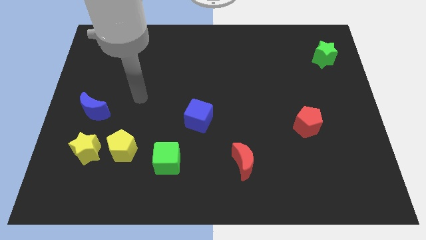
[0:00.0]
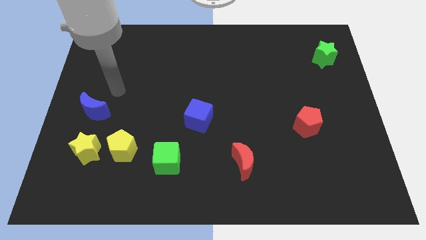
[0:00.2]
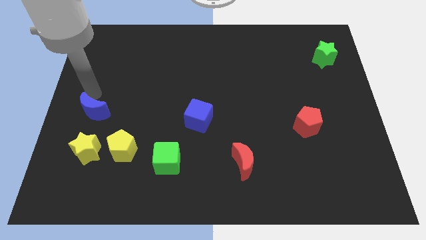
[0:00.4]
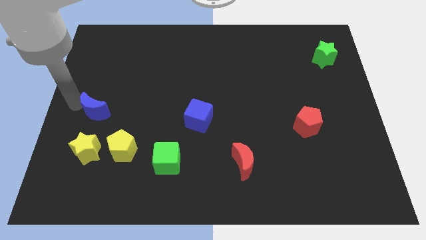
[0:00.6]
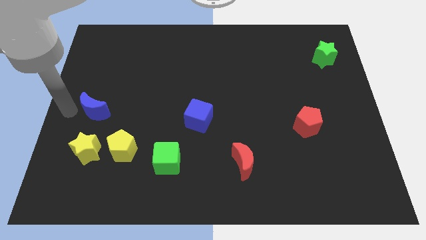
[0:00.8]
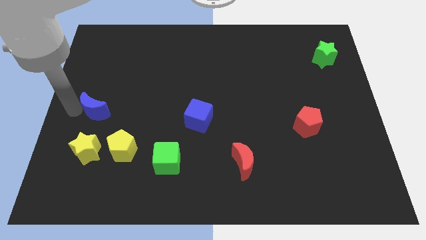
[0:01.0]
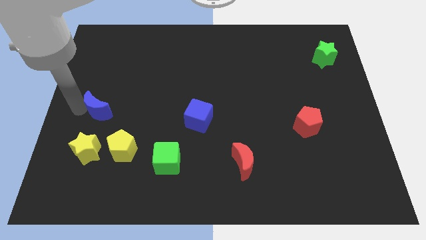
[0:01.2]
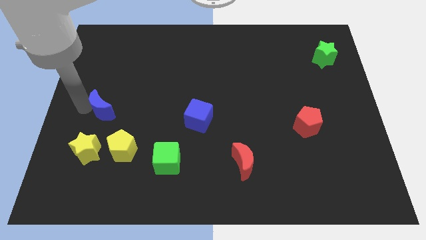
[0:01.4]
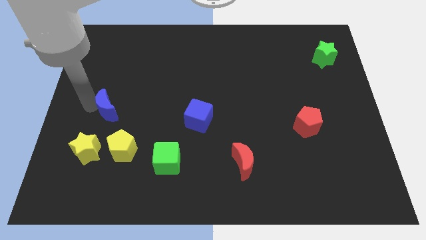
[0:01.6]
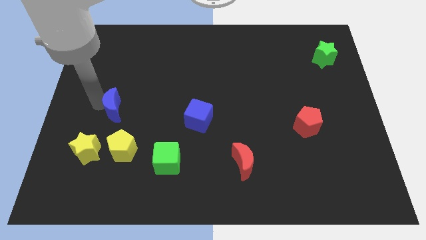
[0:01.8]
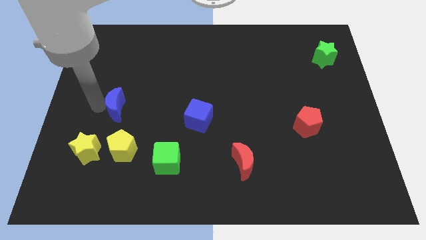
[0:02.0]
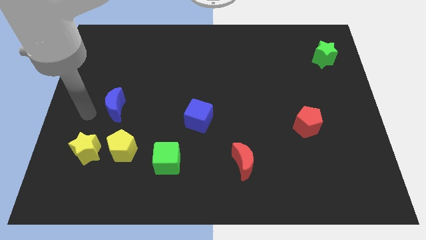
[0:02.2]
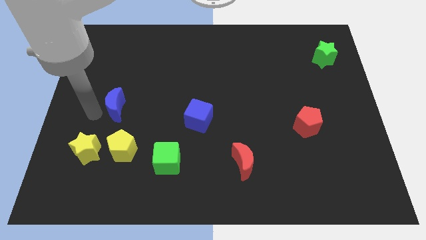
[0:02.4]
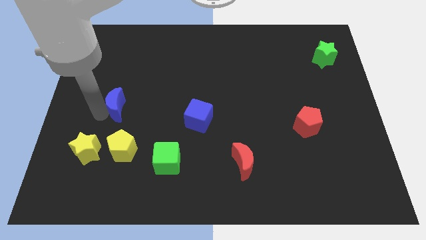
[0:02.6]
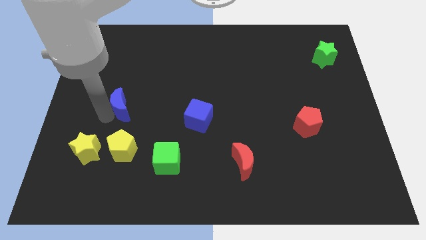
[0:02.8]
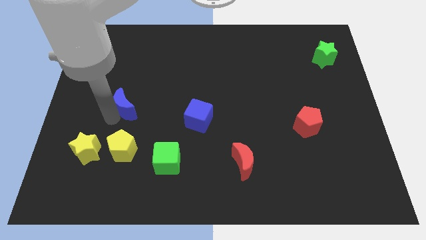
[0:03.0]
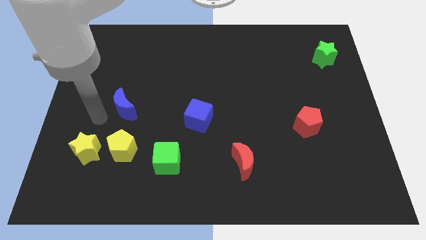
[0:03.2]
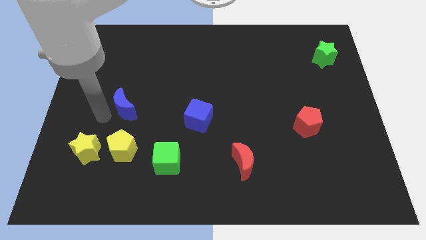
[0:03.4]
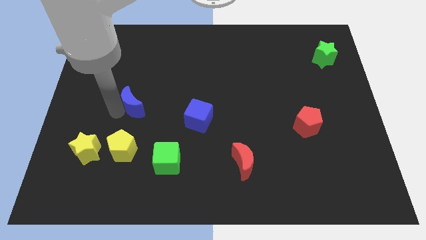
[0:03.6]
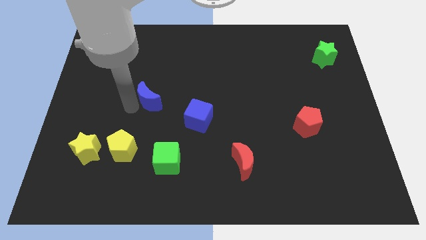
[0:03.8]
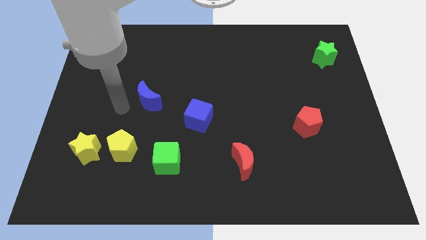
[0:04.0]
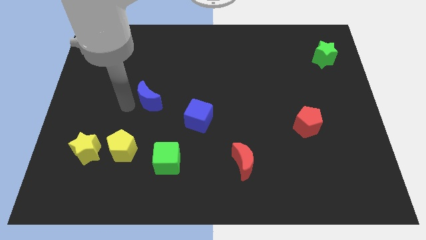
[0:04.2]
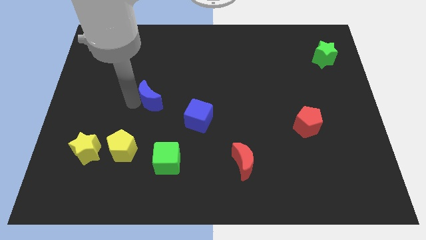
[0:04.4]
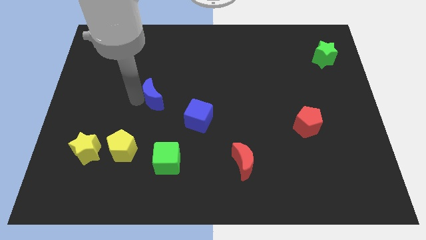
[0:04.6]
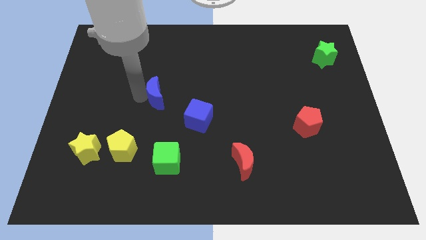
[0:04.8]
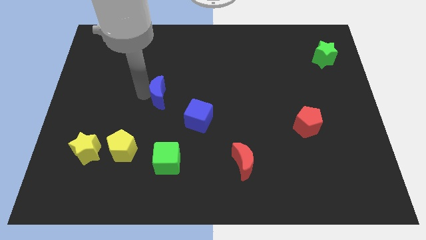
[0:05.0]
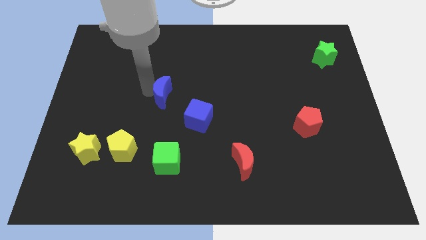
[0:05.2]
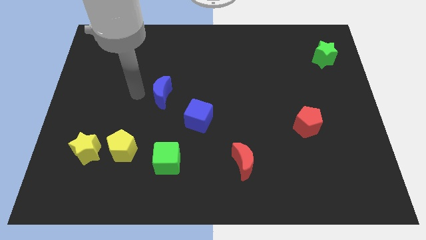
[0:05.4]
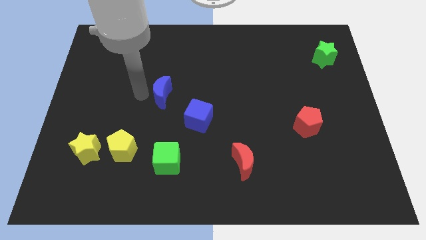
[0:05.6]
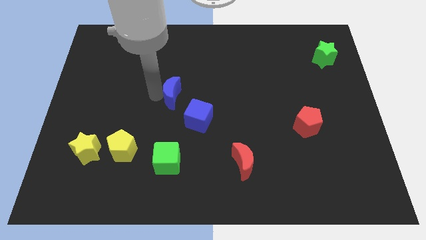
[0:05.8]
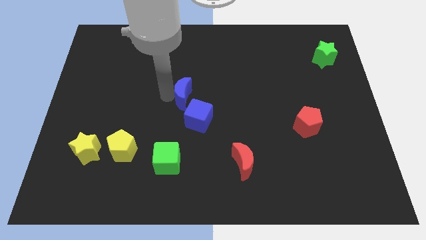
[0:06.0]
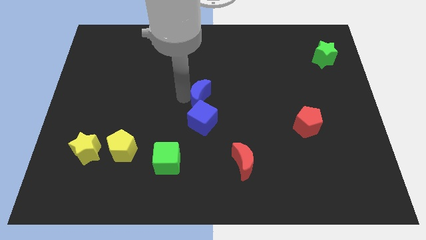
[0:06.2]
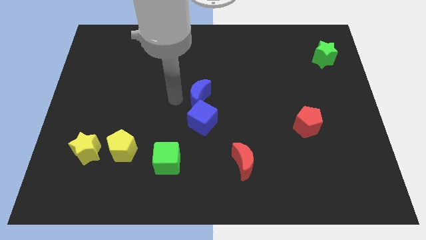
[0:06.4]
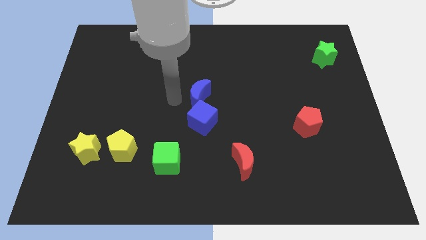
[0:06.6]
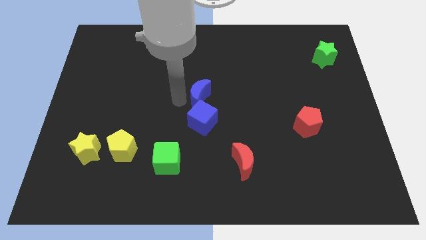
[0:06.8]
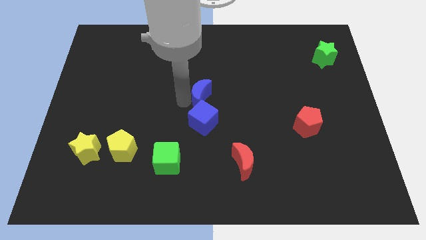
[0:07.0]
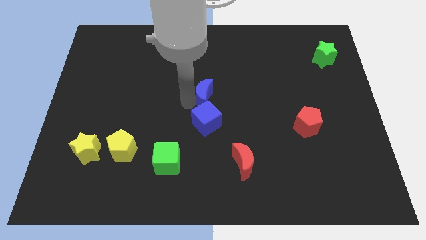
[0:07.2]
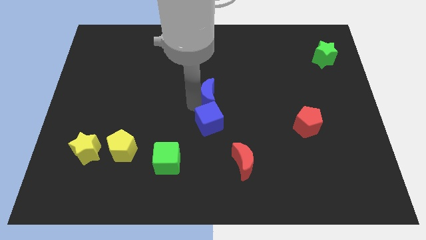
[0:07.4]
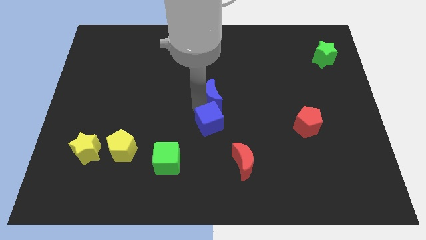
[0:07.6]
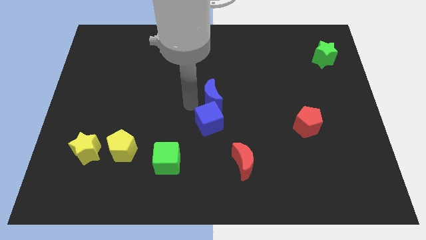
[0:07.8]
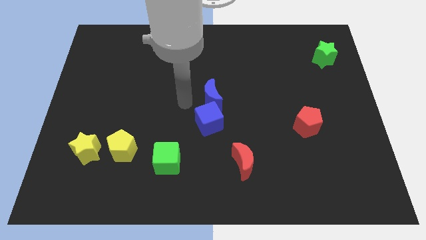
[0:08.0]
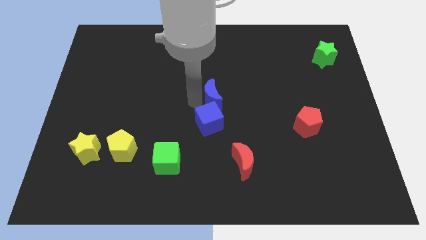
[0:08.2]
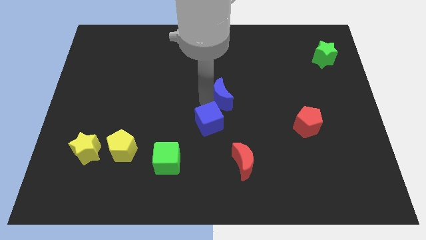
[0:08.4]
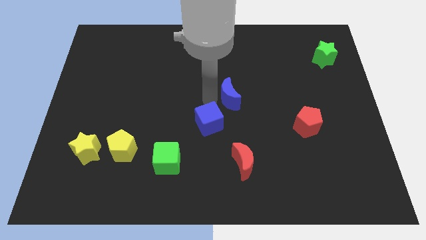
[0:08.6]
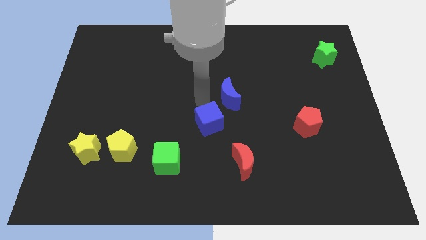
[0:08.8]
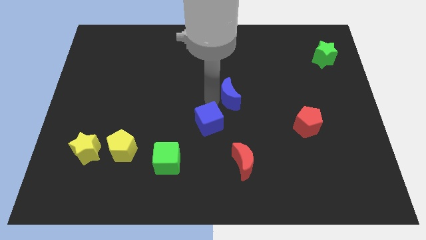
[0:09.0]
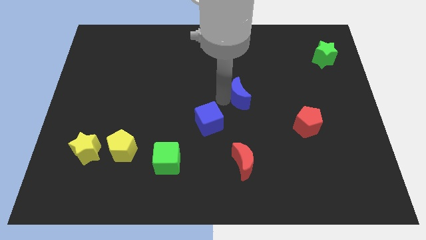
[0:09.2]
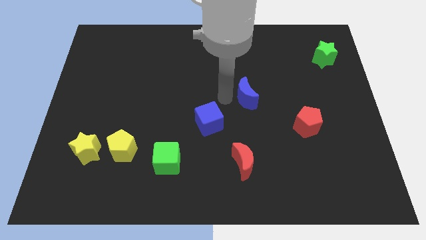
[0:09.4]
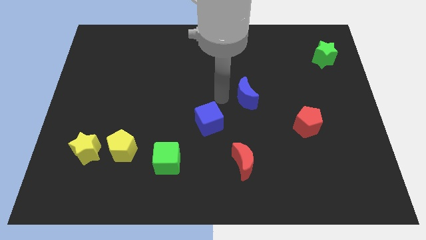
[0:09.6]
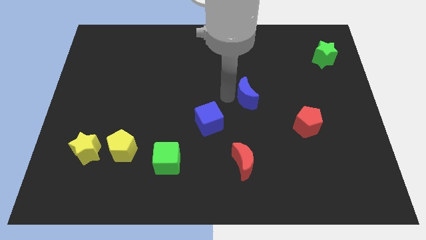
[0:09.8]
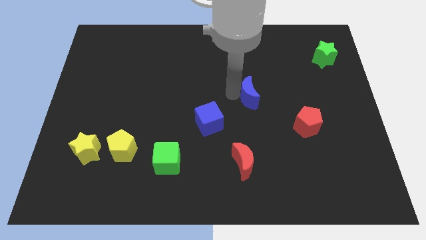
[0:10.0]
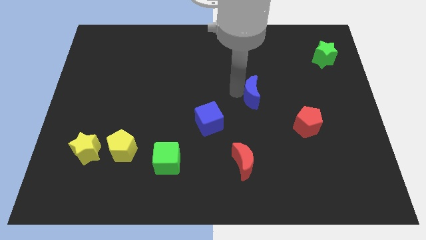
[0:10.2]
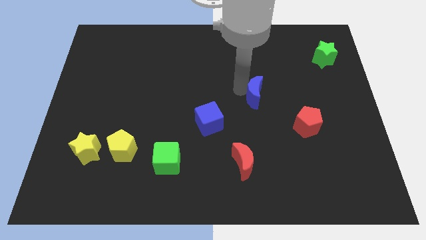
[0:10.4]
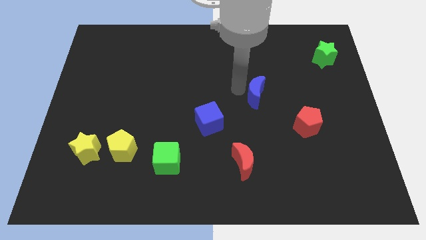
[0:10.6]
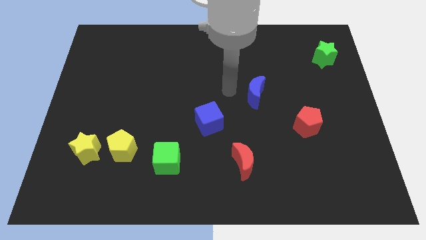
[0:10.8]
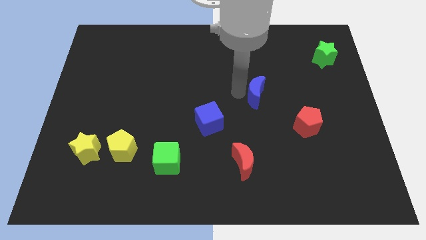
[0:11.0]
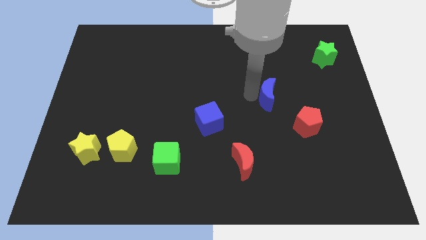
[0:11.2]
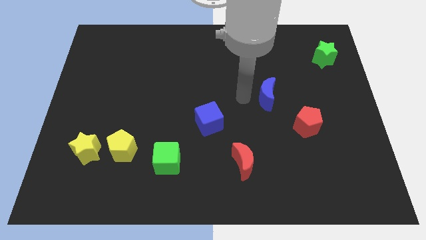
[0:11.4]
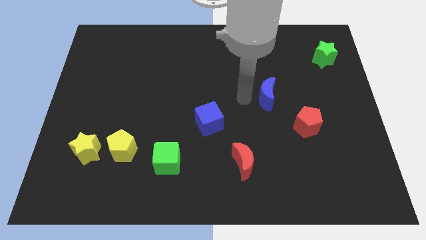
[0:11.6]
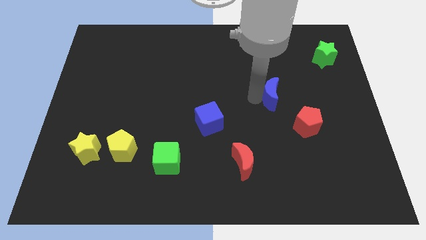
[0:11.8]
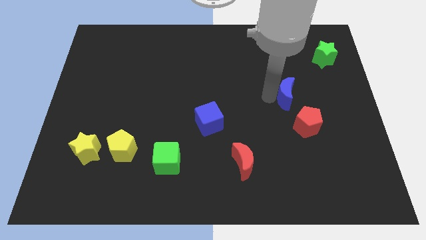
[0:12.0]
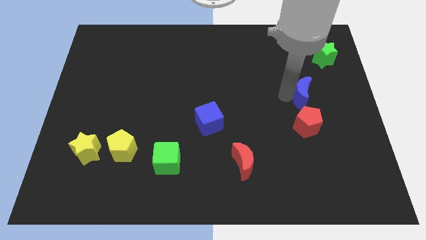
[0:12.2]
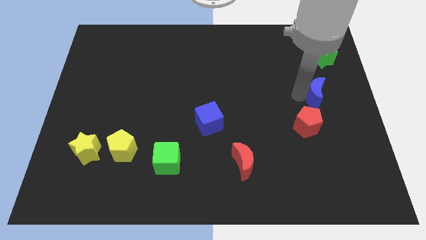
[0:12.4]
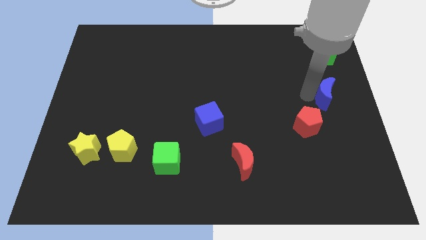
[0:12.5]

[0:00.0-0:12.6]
move the blue moon to the right side of the board
